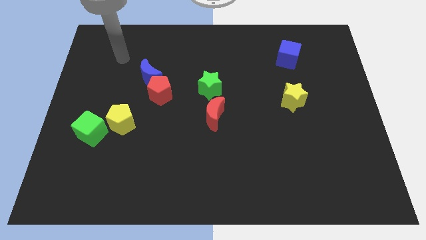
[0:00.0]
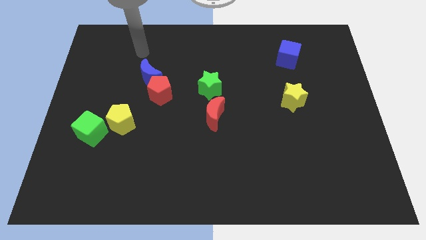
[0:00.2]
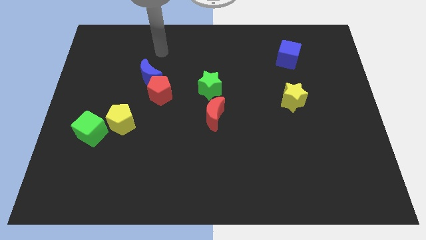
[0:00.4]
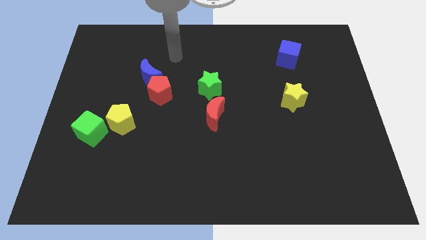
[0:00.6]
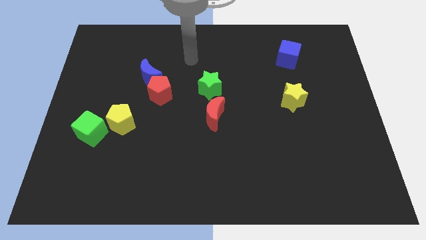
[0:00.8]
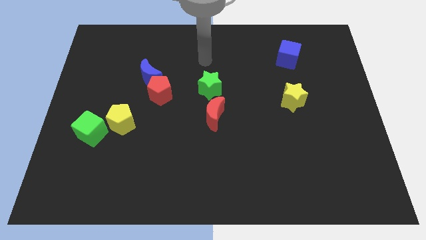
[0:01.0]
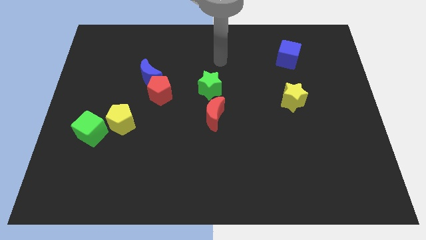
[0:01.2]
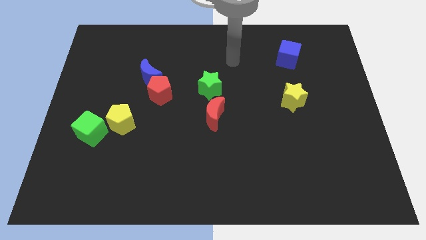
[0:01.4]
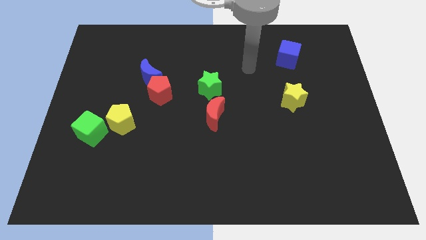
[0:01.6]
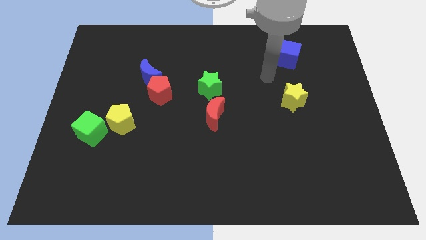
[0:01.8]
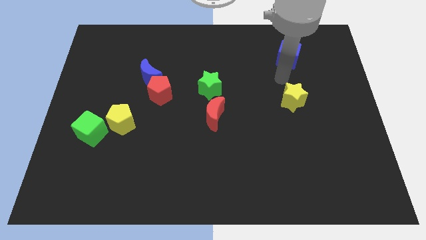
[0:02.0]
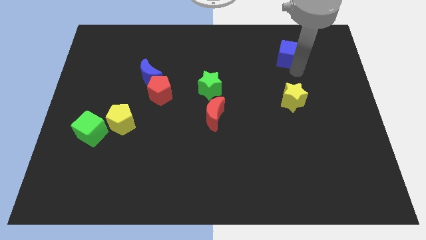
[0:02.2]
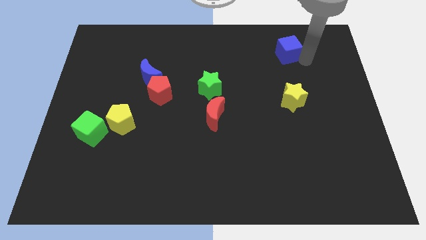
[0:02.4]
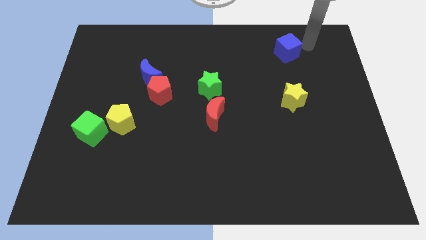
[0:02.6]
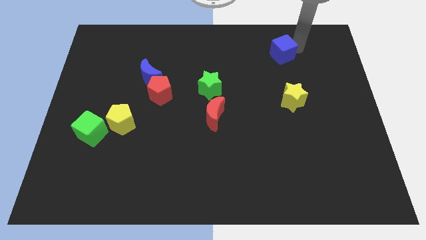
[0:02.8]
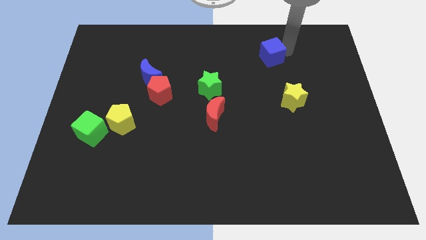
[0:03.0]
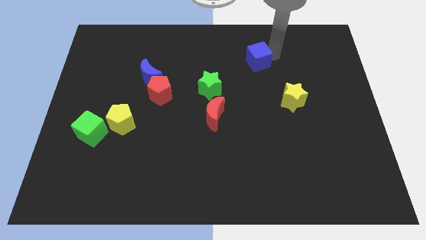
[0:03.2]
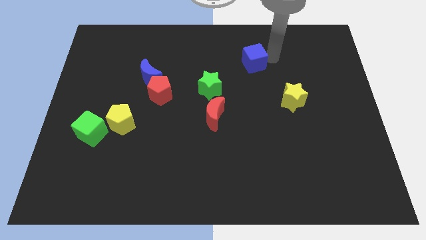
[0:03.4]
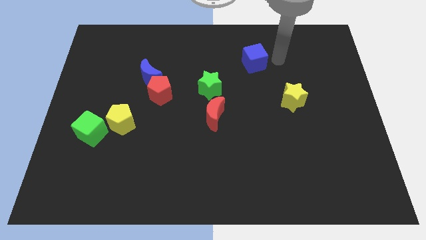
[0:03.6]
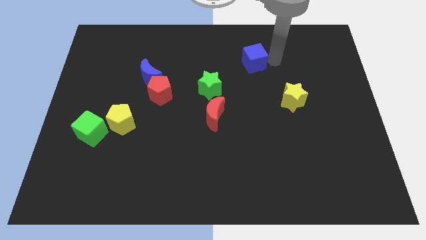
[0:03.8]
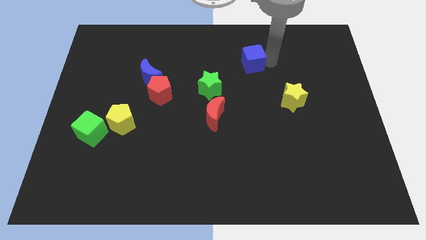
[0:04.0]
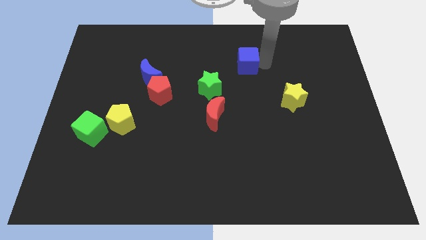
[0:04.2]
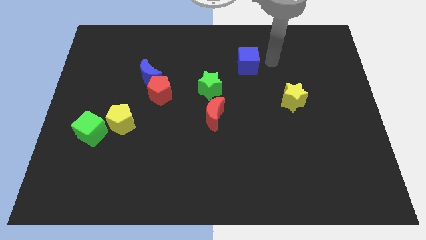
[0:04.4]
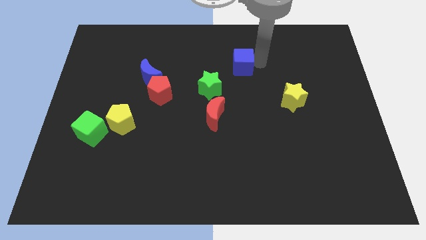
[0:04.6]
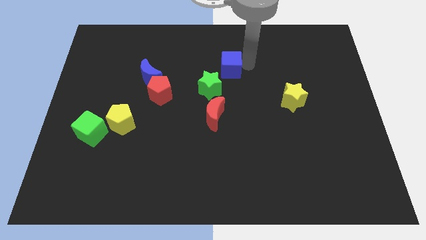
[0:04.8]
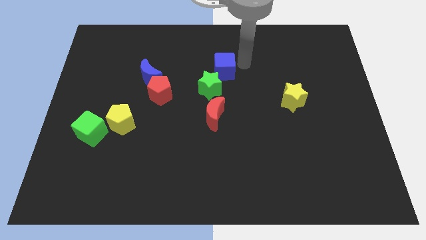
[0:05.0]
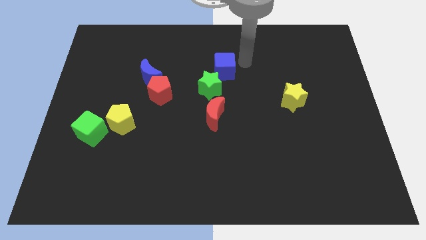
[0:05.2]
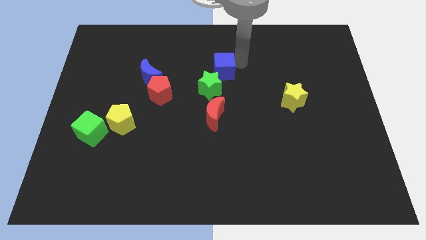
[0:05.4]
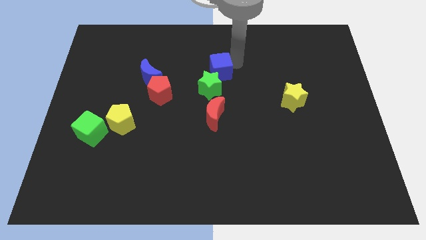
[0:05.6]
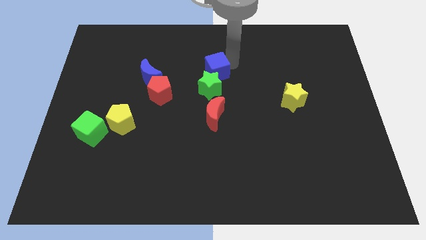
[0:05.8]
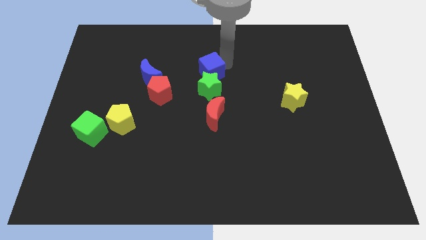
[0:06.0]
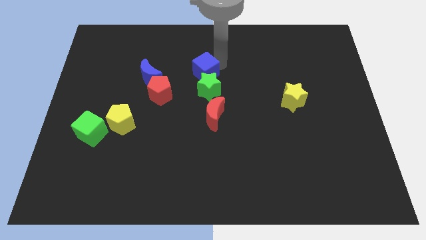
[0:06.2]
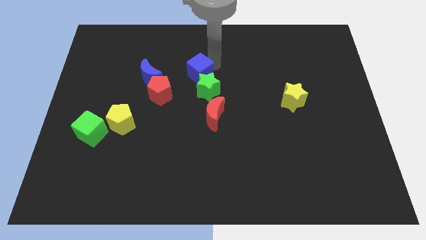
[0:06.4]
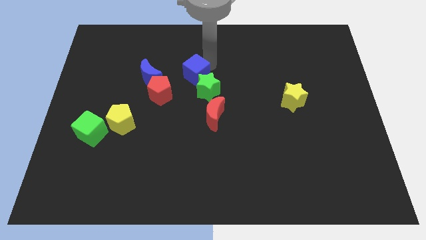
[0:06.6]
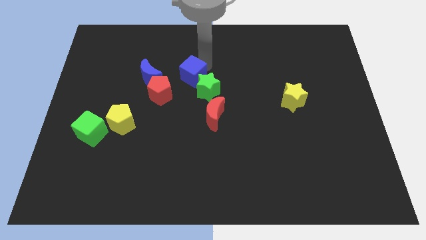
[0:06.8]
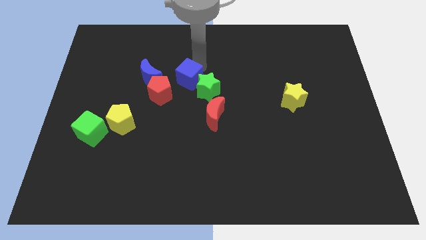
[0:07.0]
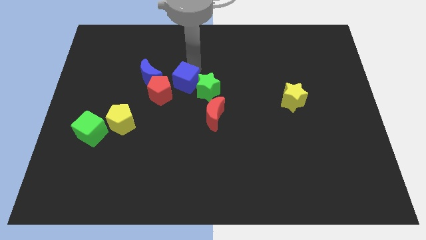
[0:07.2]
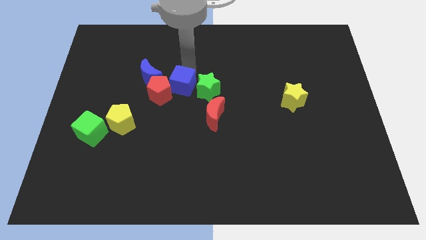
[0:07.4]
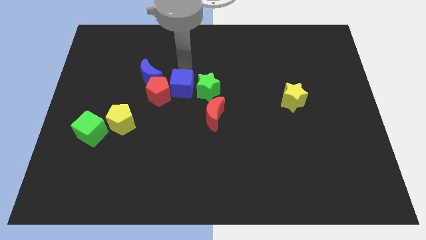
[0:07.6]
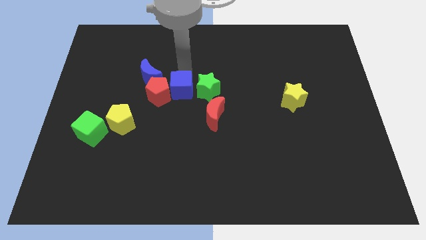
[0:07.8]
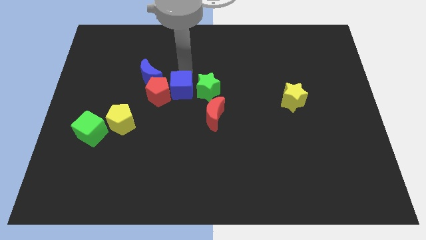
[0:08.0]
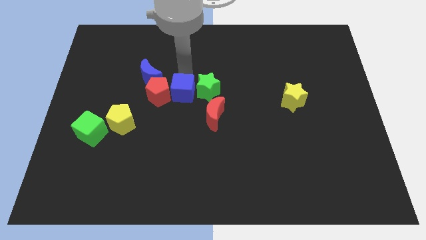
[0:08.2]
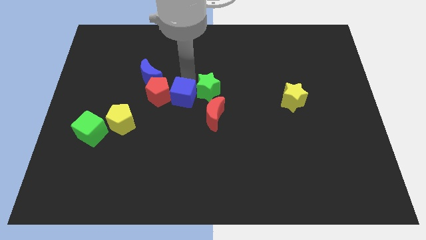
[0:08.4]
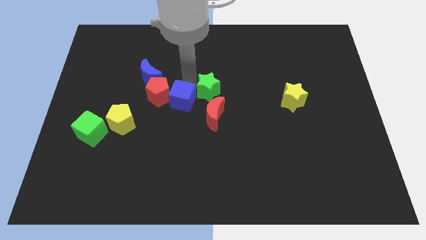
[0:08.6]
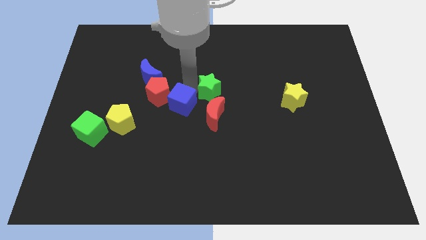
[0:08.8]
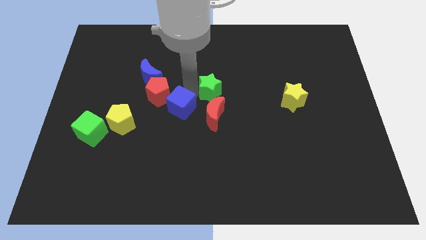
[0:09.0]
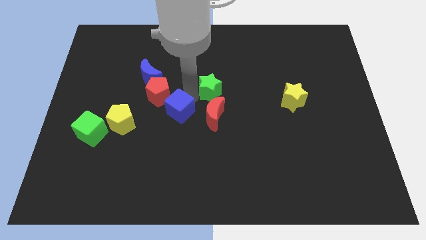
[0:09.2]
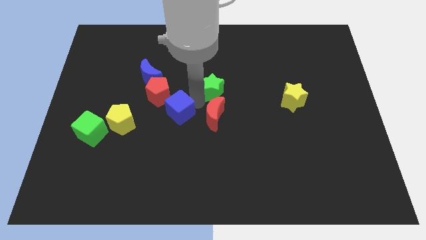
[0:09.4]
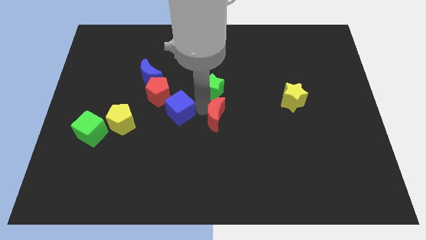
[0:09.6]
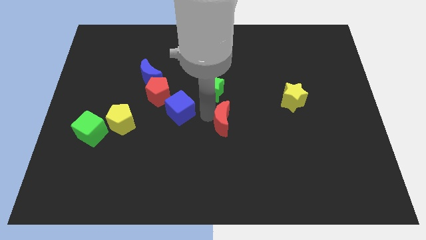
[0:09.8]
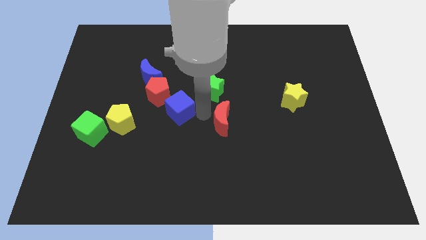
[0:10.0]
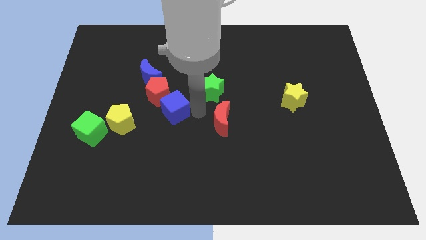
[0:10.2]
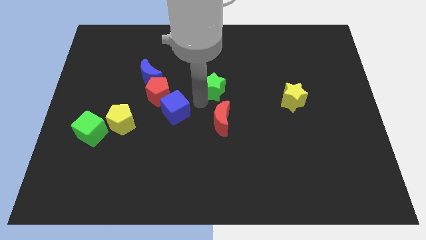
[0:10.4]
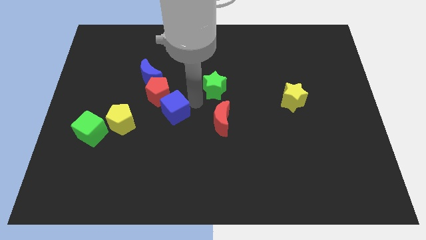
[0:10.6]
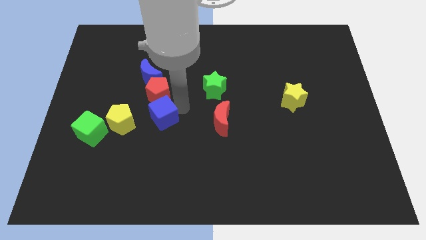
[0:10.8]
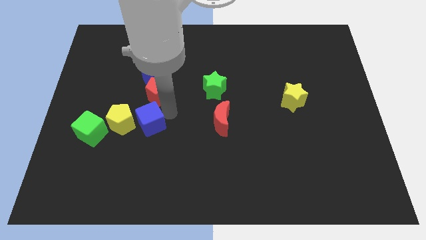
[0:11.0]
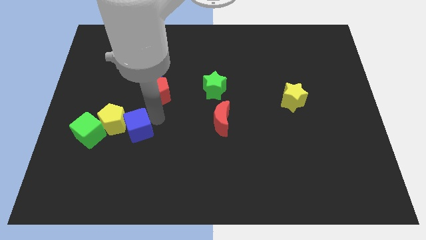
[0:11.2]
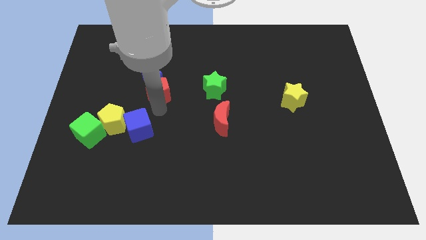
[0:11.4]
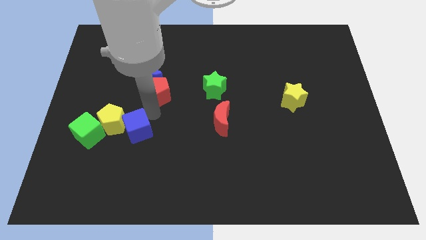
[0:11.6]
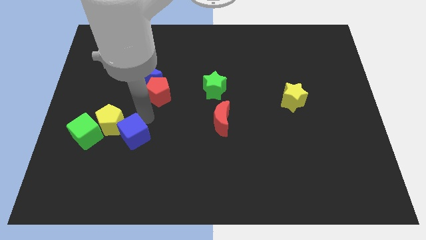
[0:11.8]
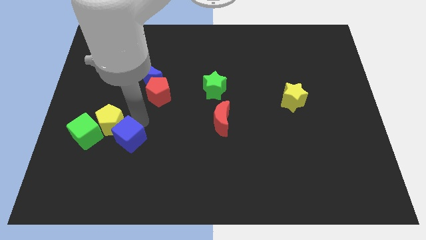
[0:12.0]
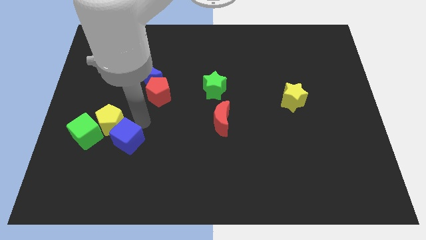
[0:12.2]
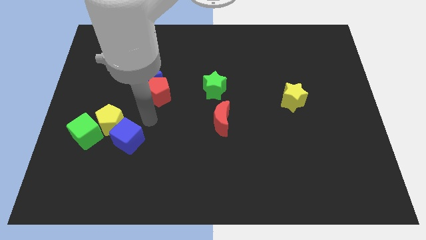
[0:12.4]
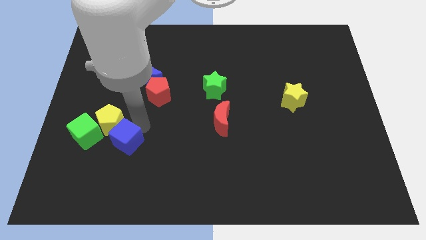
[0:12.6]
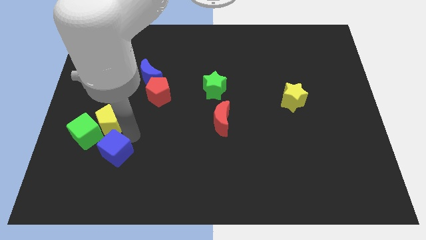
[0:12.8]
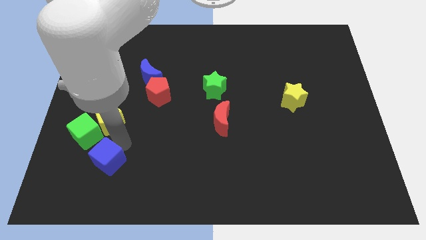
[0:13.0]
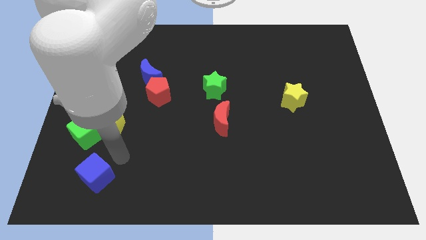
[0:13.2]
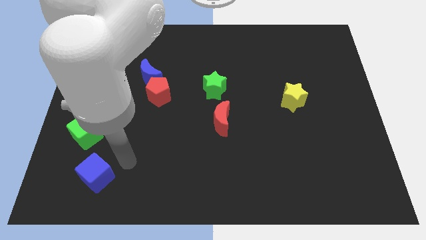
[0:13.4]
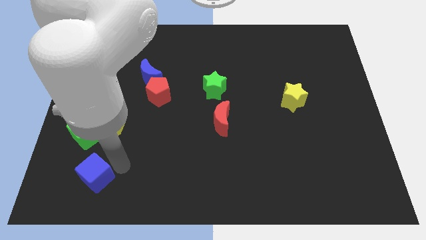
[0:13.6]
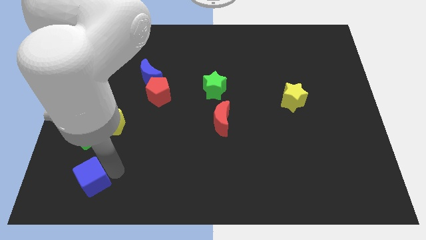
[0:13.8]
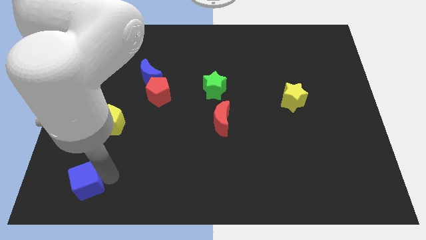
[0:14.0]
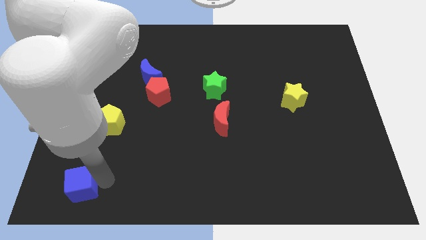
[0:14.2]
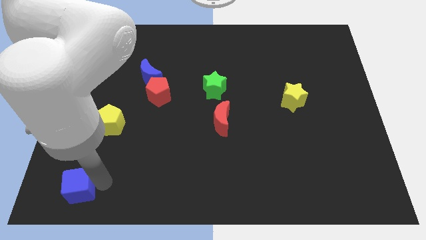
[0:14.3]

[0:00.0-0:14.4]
move the blue cube to the bottom left of the board
